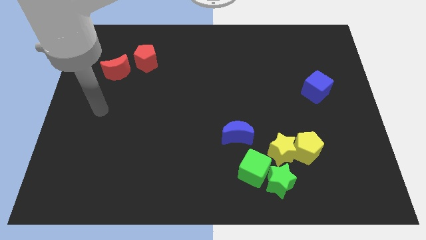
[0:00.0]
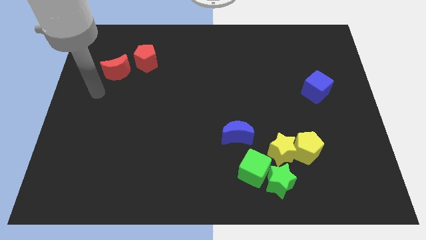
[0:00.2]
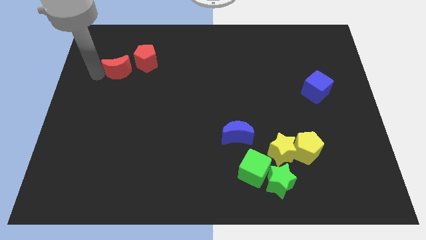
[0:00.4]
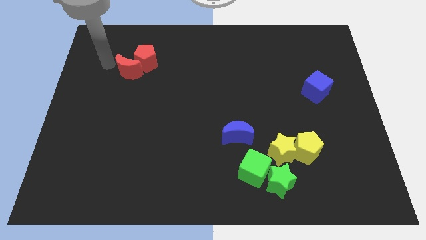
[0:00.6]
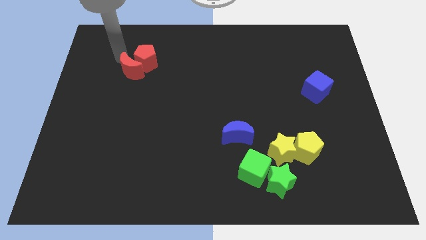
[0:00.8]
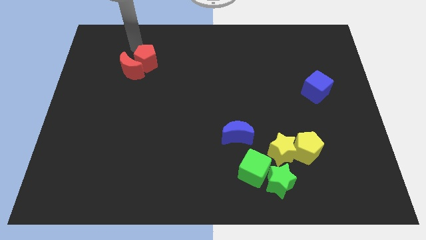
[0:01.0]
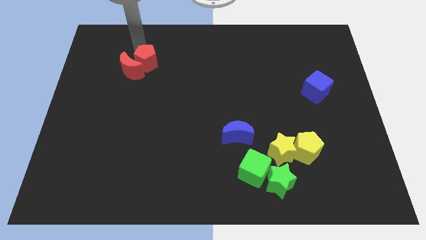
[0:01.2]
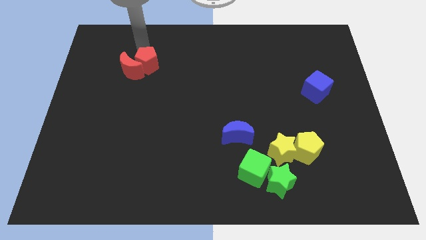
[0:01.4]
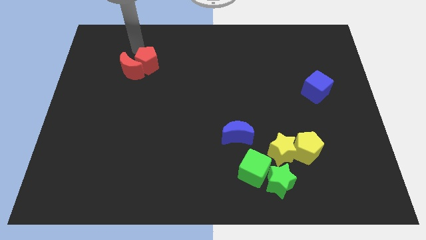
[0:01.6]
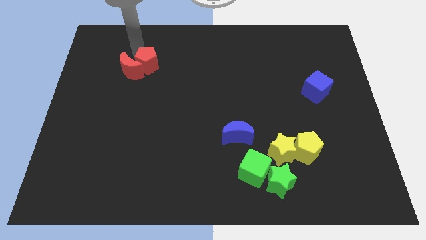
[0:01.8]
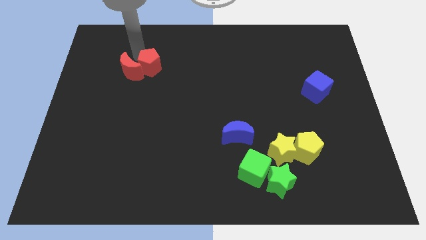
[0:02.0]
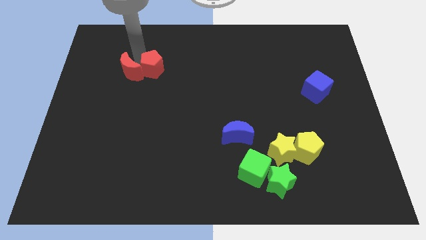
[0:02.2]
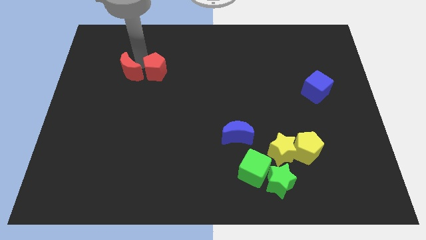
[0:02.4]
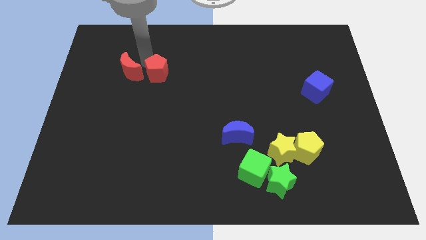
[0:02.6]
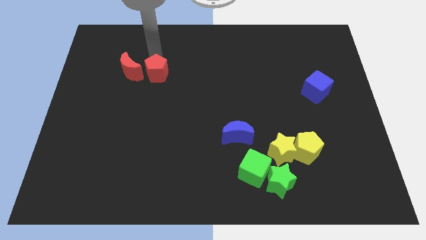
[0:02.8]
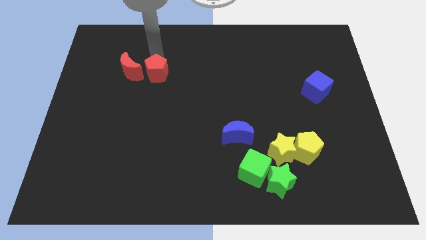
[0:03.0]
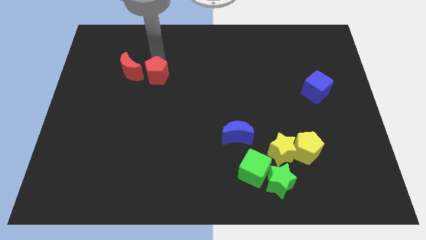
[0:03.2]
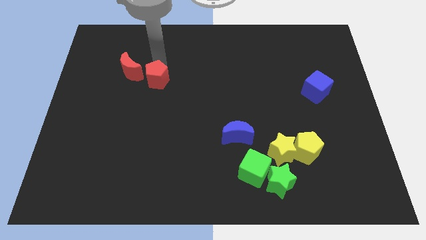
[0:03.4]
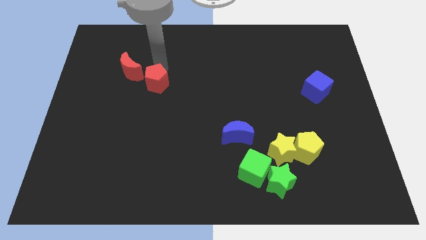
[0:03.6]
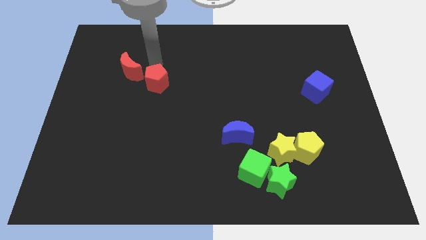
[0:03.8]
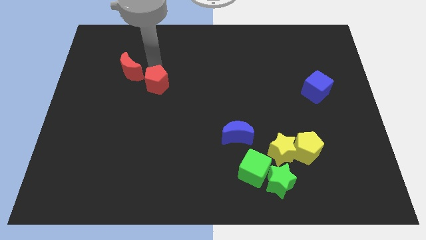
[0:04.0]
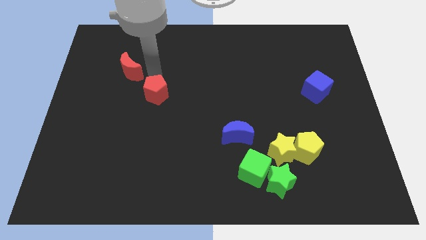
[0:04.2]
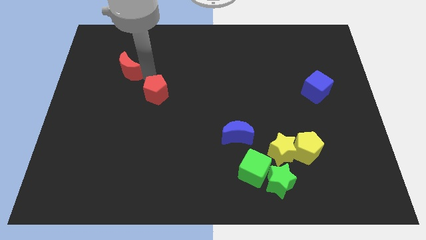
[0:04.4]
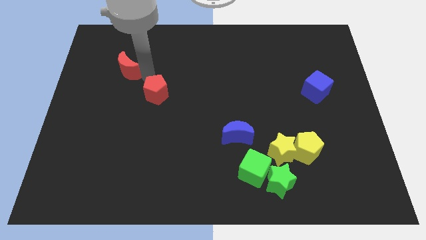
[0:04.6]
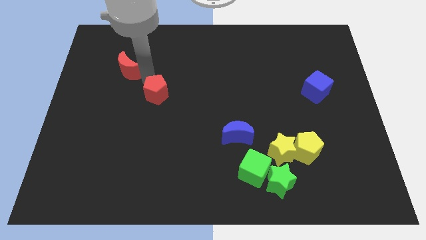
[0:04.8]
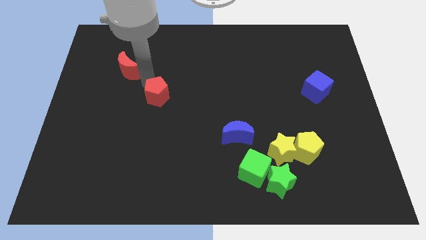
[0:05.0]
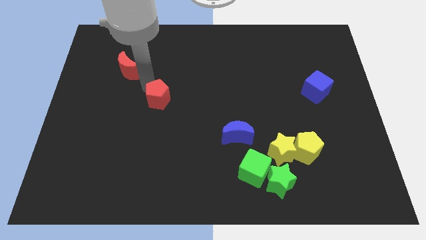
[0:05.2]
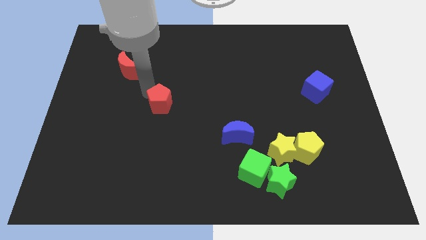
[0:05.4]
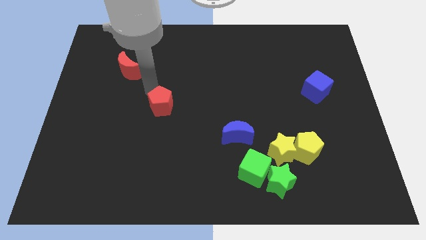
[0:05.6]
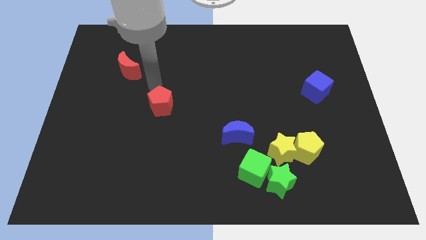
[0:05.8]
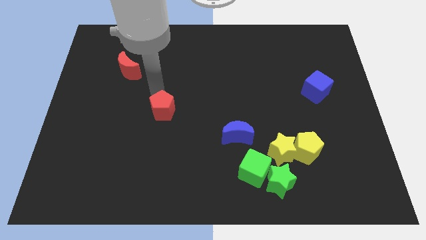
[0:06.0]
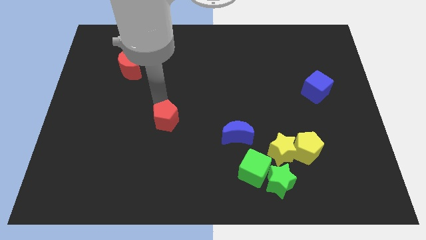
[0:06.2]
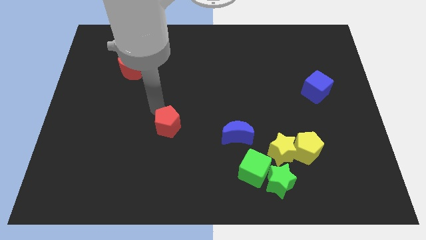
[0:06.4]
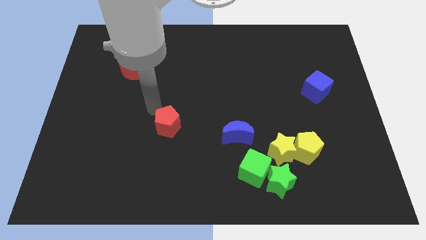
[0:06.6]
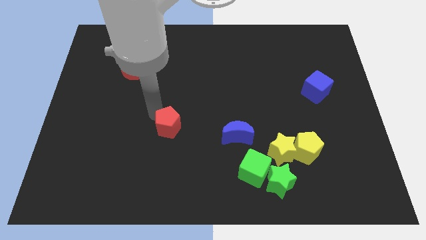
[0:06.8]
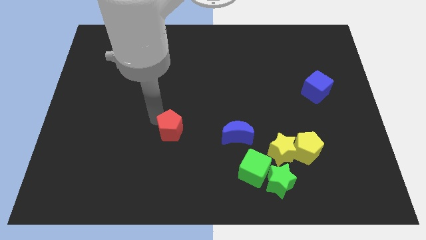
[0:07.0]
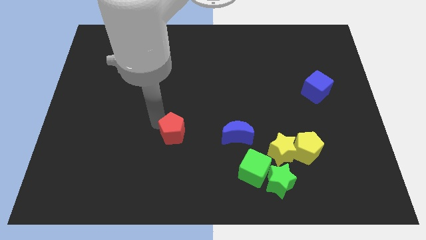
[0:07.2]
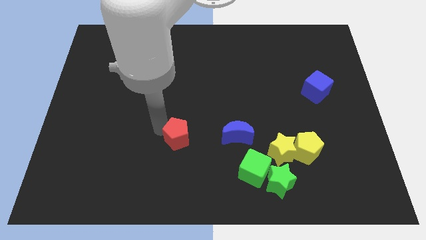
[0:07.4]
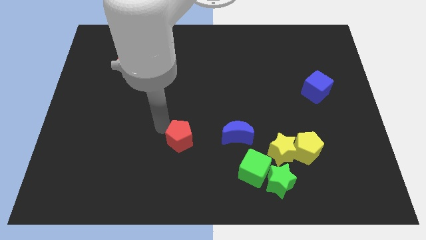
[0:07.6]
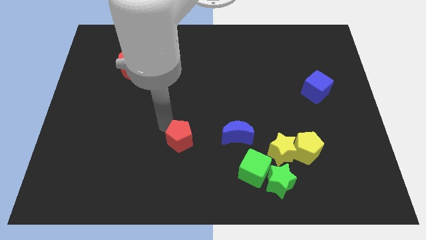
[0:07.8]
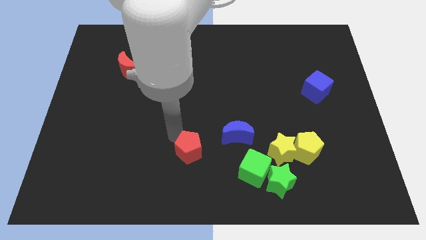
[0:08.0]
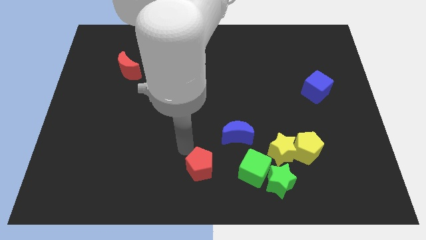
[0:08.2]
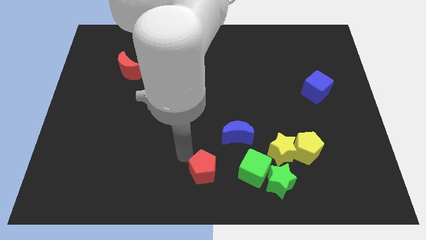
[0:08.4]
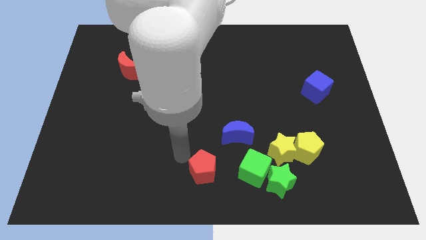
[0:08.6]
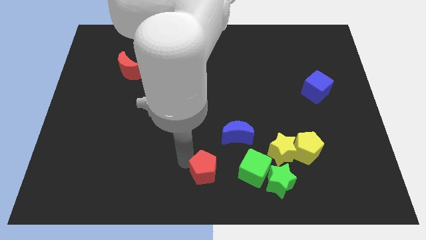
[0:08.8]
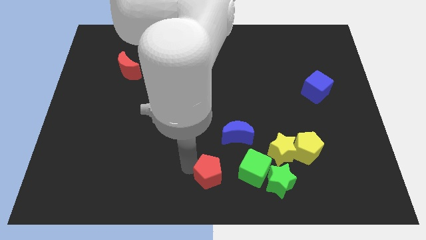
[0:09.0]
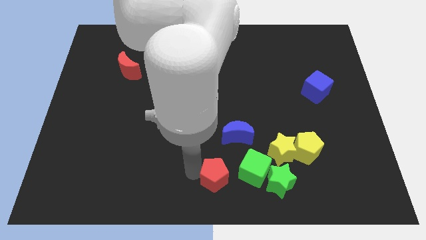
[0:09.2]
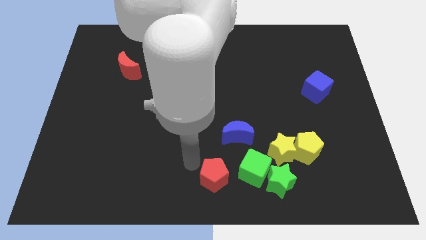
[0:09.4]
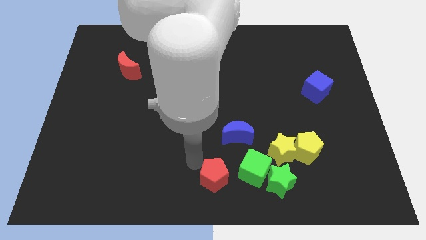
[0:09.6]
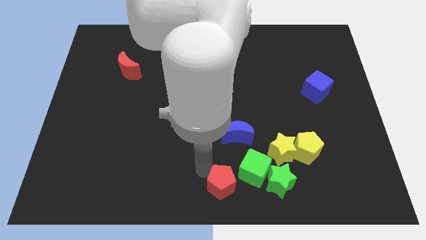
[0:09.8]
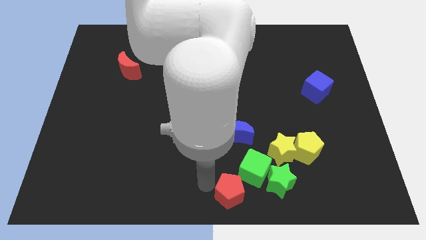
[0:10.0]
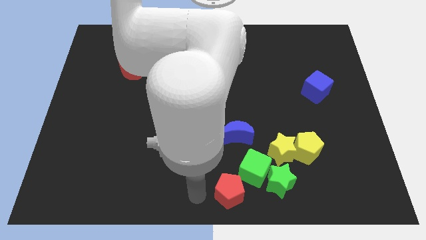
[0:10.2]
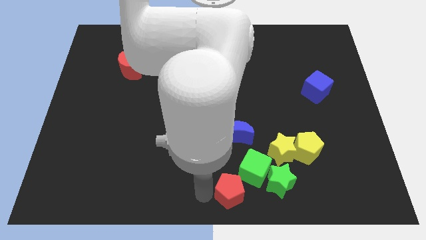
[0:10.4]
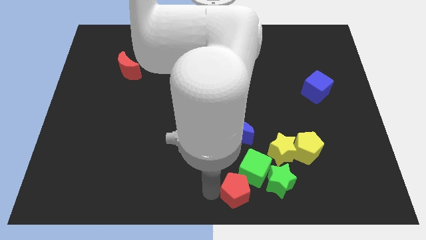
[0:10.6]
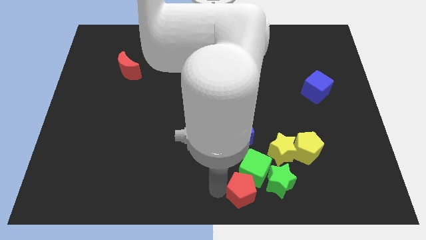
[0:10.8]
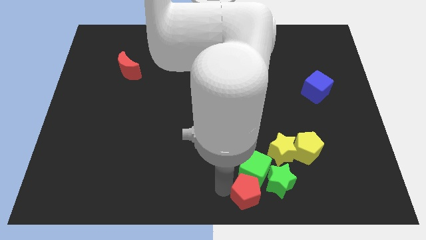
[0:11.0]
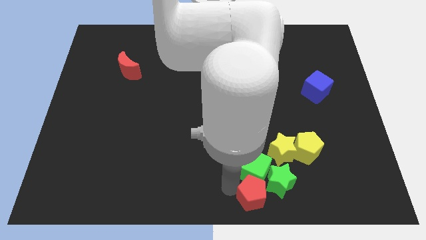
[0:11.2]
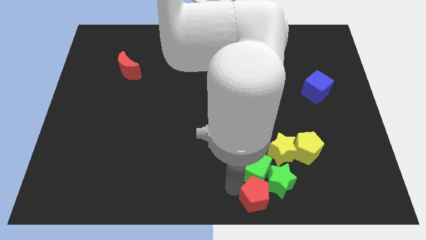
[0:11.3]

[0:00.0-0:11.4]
slide the red pentagon close to the green star

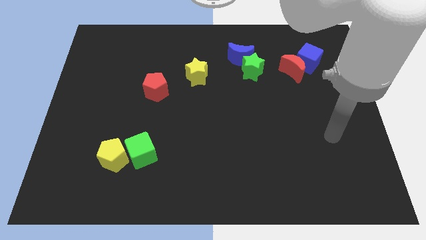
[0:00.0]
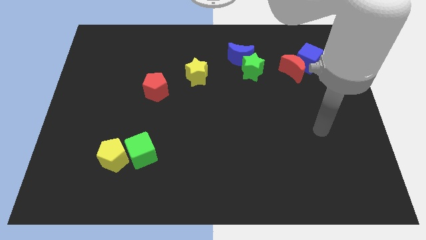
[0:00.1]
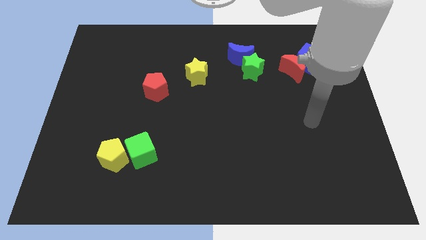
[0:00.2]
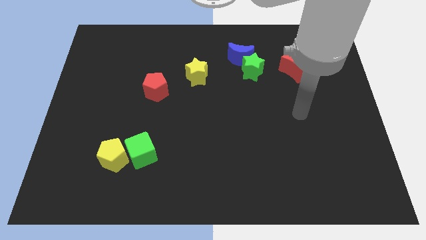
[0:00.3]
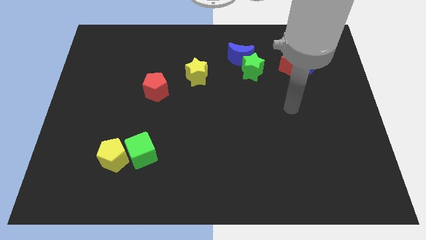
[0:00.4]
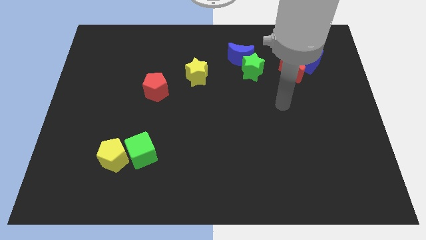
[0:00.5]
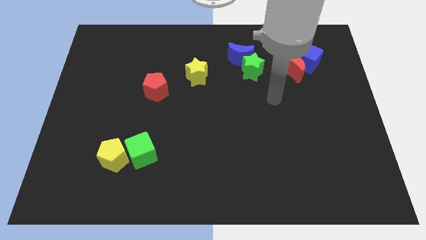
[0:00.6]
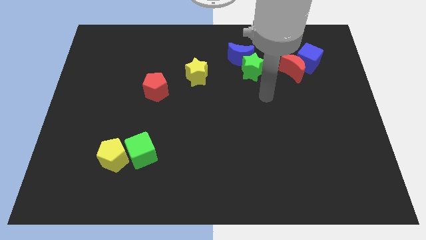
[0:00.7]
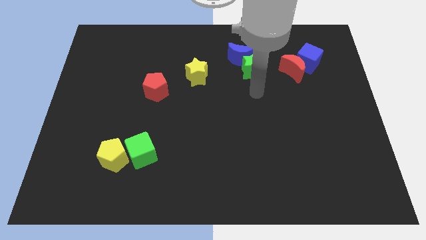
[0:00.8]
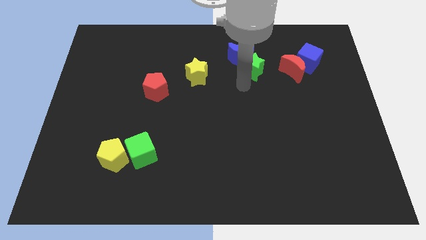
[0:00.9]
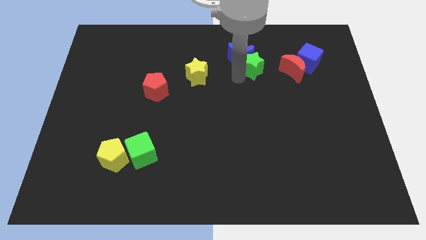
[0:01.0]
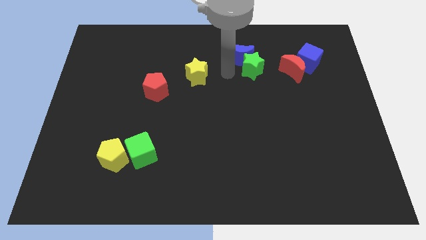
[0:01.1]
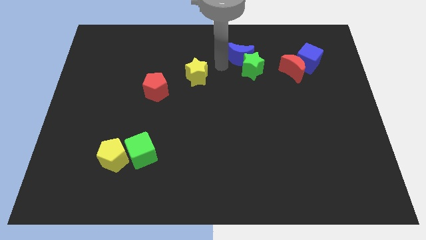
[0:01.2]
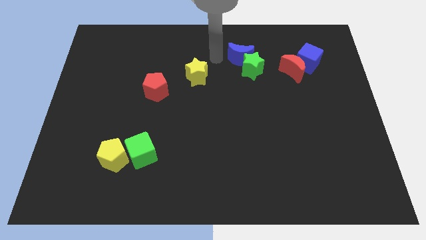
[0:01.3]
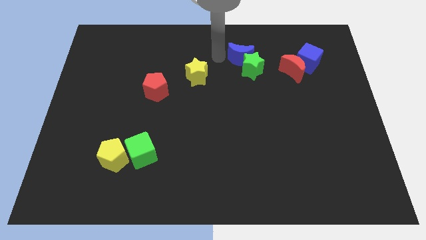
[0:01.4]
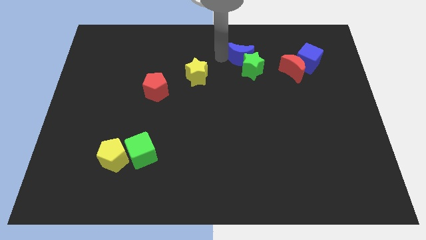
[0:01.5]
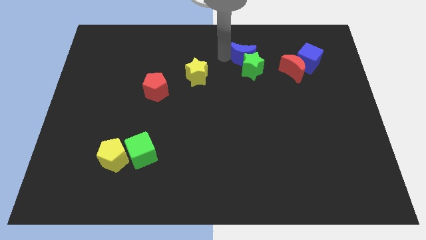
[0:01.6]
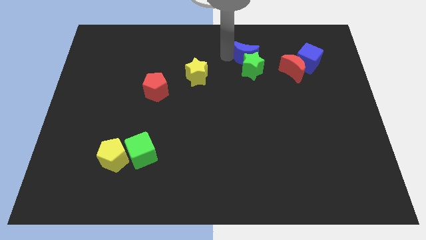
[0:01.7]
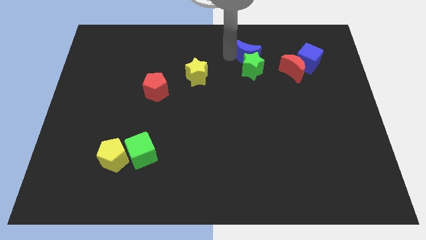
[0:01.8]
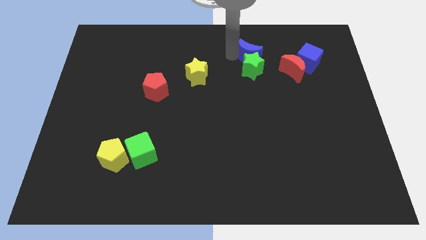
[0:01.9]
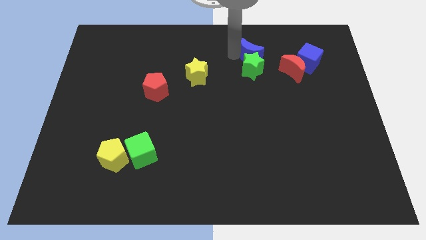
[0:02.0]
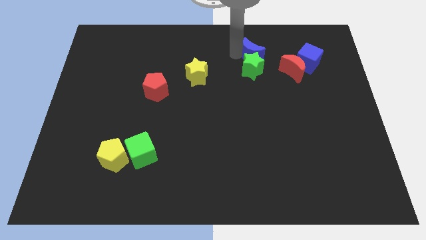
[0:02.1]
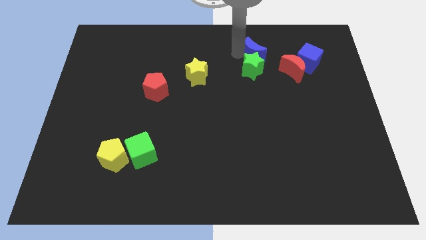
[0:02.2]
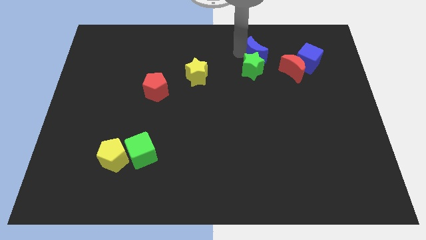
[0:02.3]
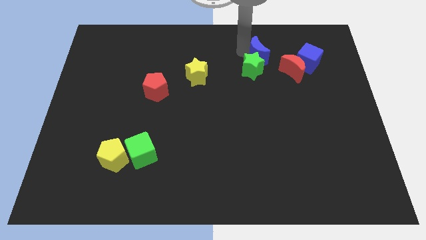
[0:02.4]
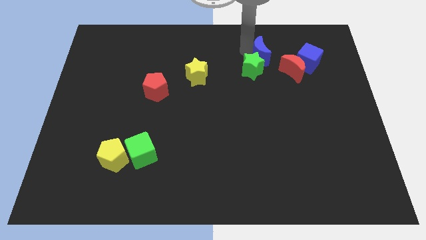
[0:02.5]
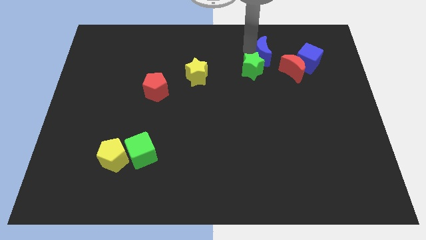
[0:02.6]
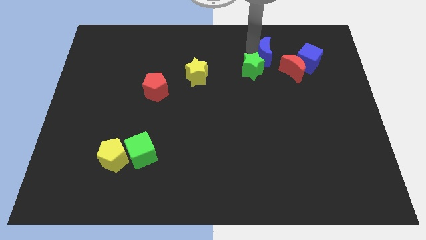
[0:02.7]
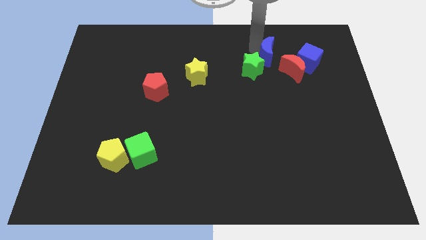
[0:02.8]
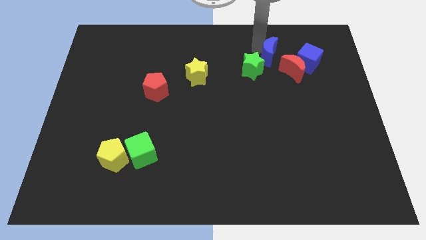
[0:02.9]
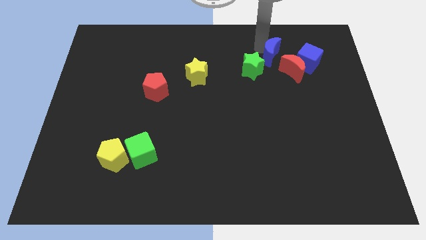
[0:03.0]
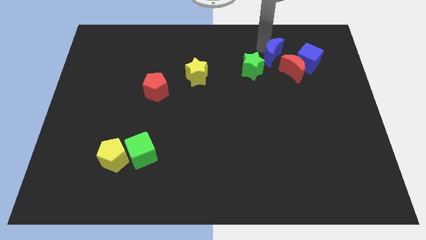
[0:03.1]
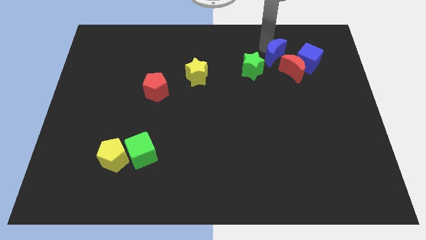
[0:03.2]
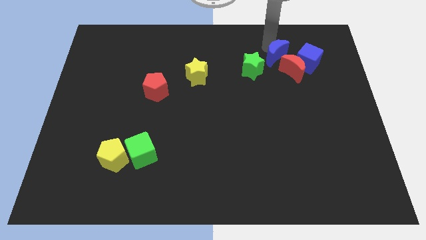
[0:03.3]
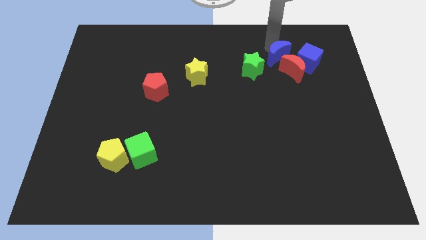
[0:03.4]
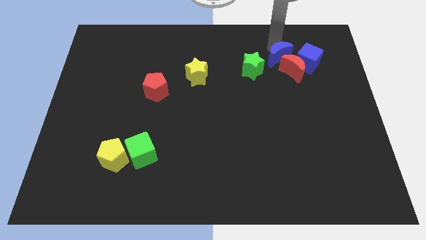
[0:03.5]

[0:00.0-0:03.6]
slide the blue moon towards the red moon
